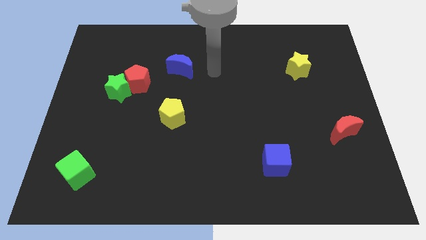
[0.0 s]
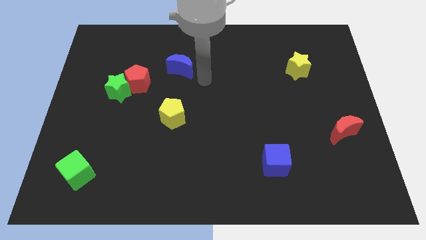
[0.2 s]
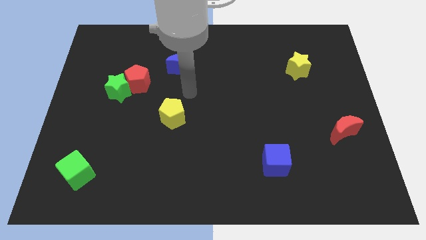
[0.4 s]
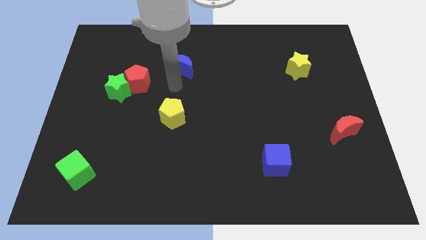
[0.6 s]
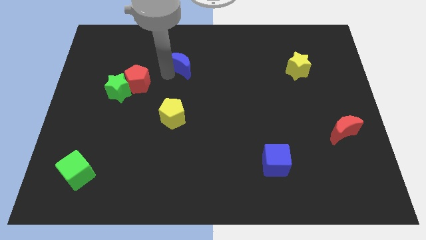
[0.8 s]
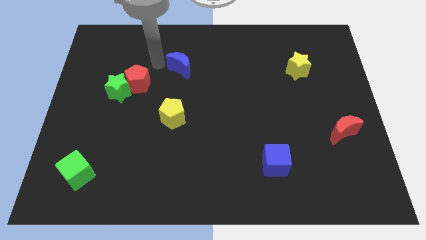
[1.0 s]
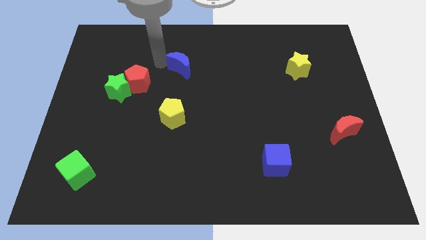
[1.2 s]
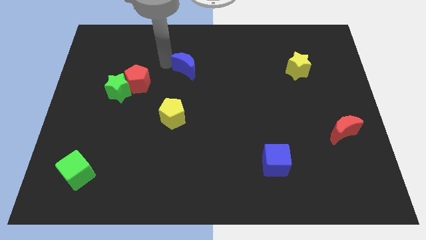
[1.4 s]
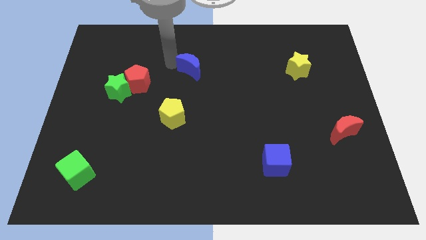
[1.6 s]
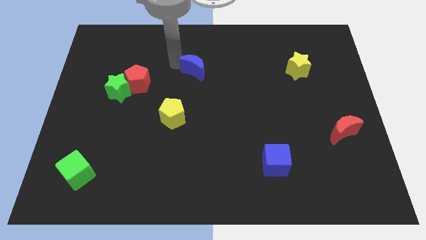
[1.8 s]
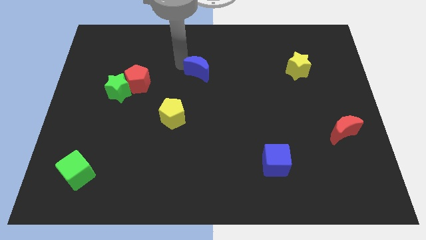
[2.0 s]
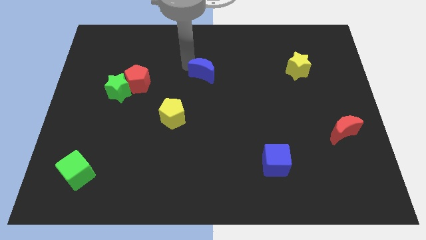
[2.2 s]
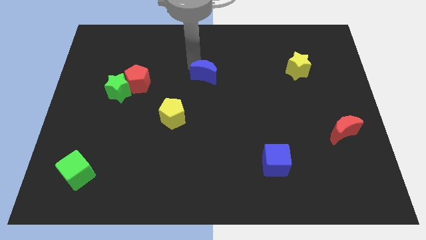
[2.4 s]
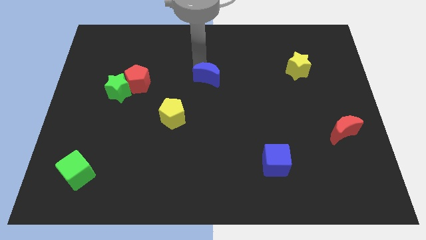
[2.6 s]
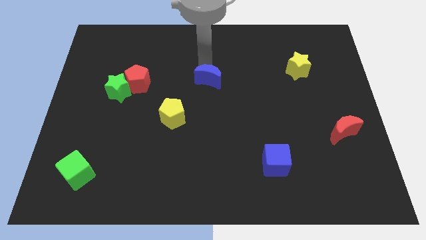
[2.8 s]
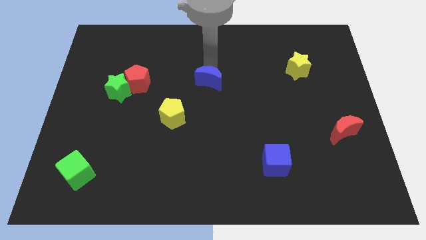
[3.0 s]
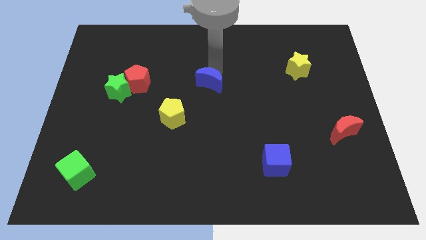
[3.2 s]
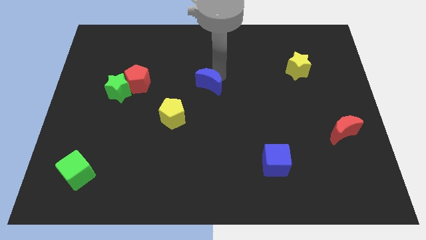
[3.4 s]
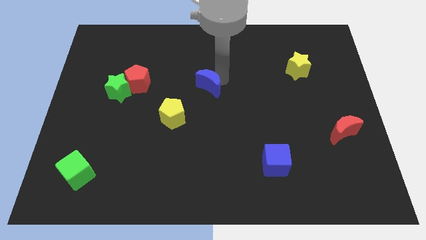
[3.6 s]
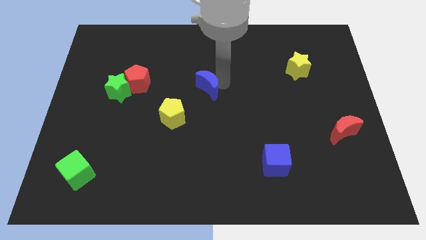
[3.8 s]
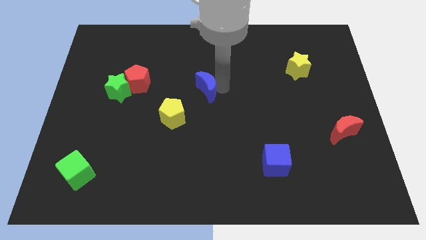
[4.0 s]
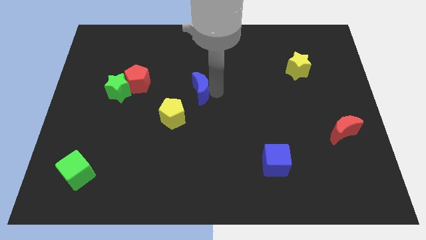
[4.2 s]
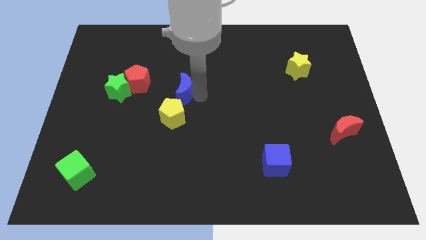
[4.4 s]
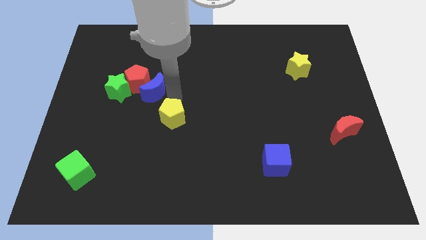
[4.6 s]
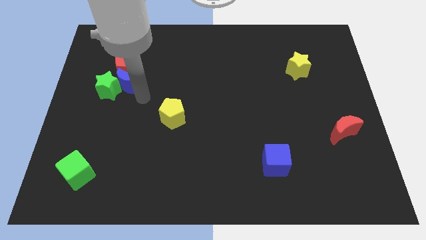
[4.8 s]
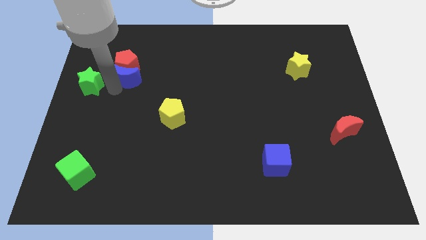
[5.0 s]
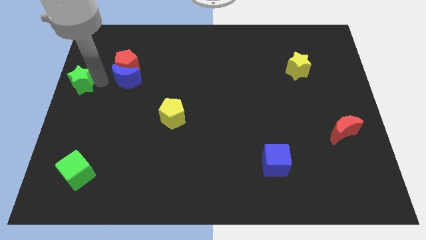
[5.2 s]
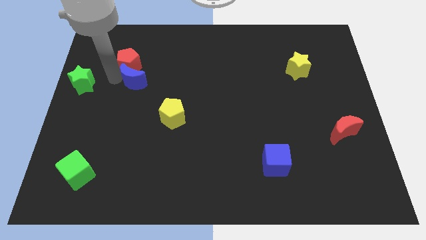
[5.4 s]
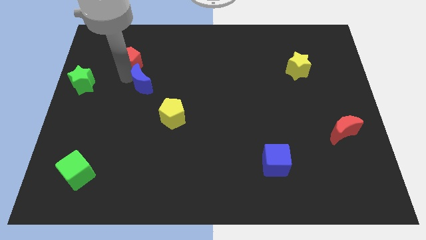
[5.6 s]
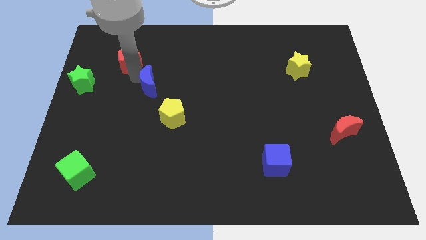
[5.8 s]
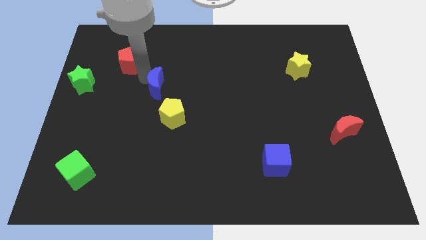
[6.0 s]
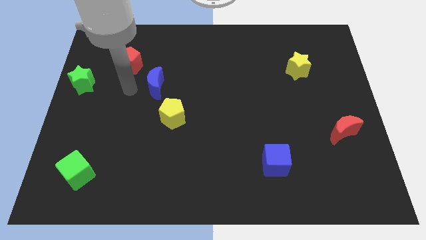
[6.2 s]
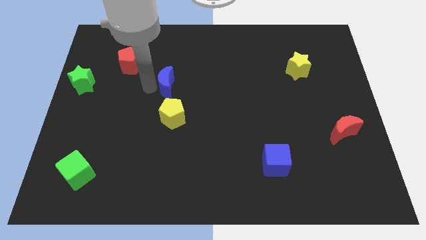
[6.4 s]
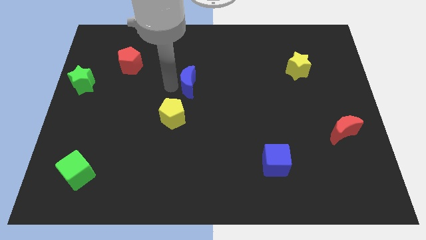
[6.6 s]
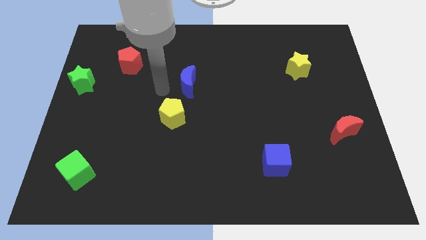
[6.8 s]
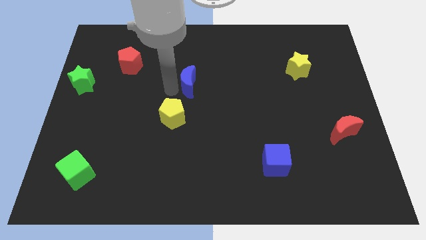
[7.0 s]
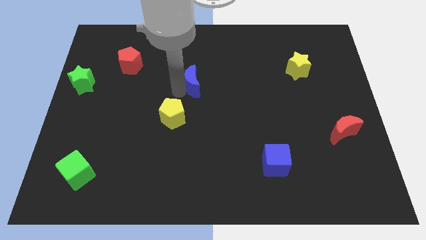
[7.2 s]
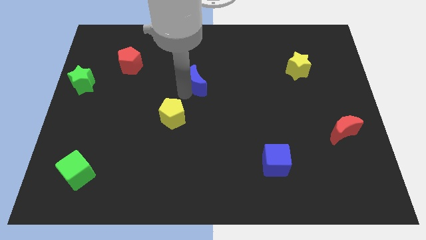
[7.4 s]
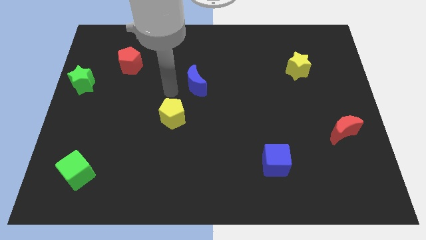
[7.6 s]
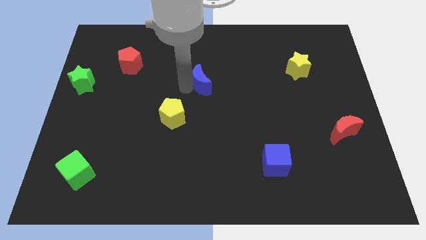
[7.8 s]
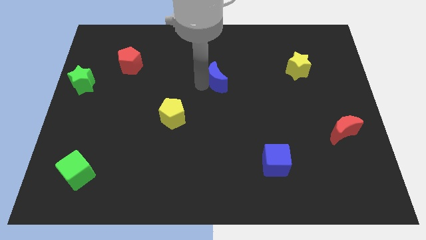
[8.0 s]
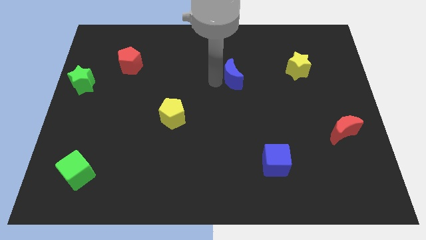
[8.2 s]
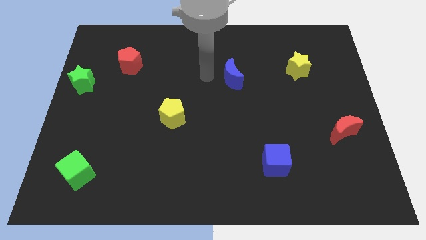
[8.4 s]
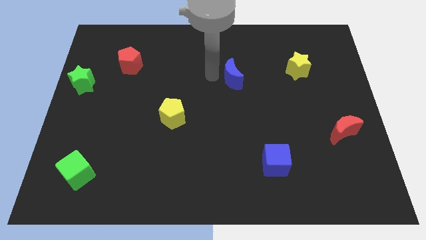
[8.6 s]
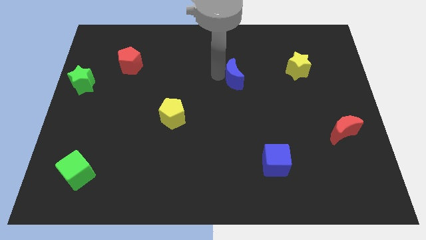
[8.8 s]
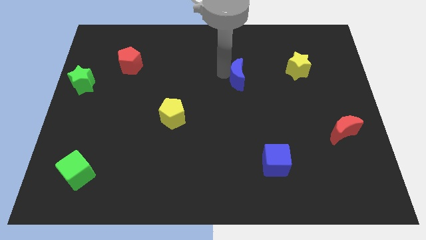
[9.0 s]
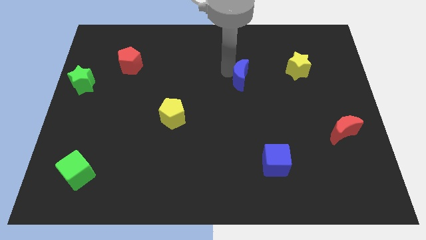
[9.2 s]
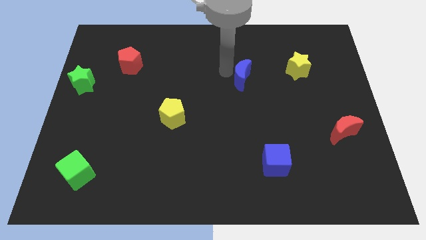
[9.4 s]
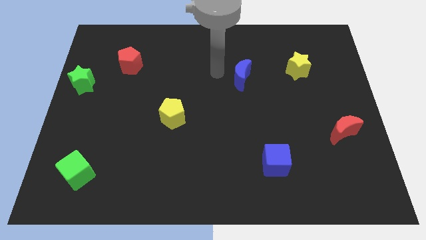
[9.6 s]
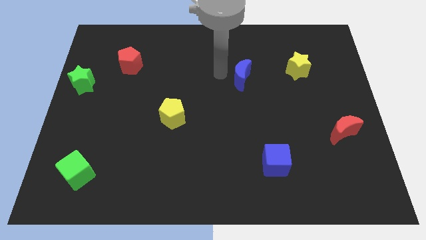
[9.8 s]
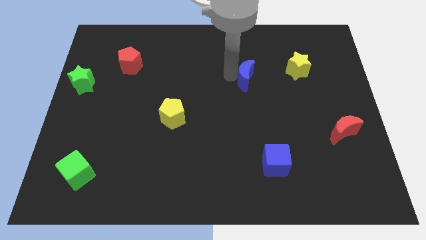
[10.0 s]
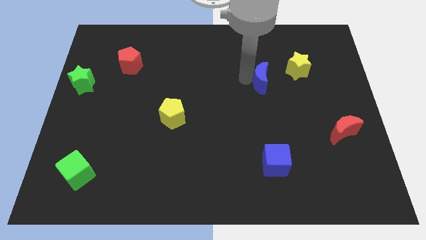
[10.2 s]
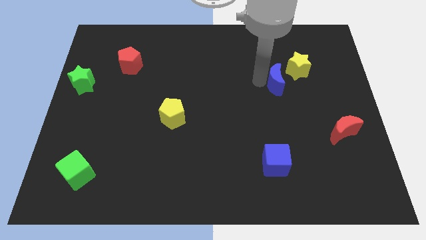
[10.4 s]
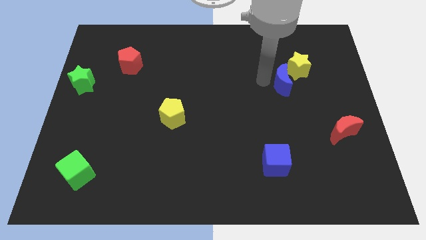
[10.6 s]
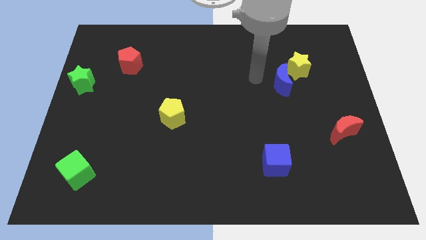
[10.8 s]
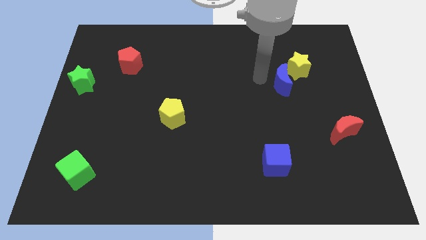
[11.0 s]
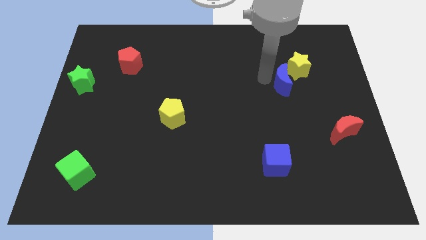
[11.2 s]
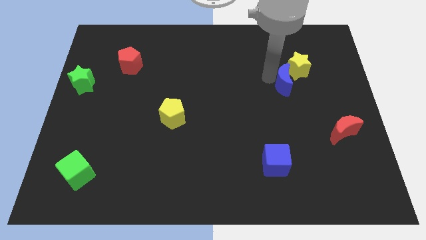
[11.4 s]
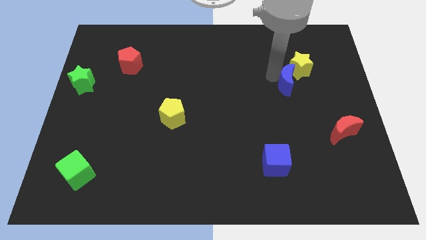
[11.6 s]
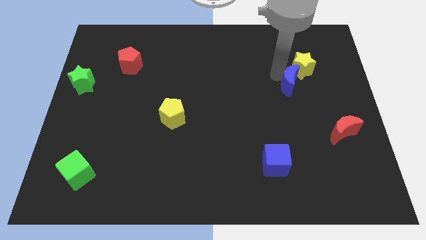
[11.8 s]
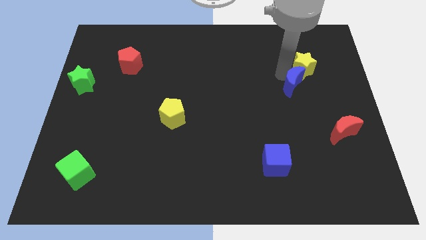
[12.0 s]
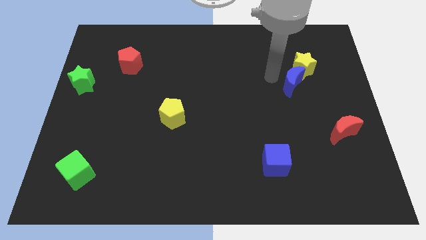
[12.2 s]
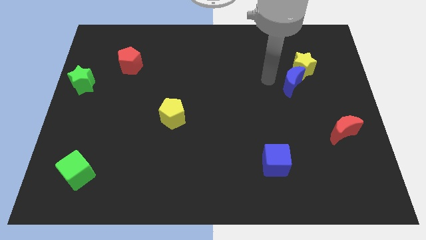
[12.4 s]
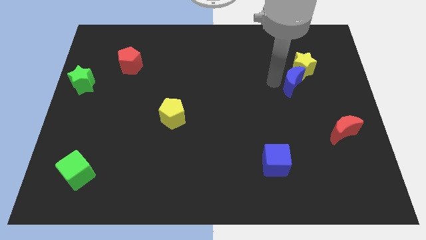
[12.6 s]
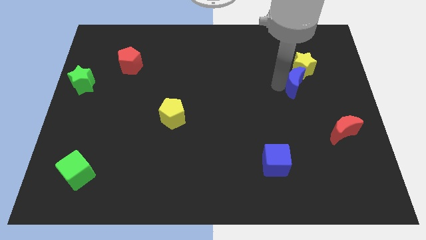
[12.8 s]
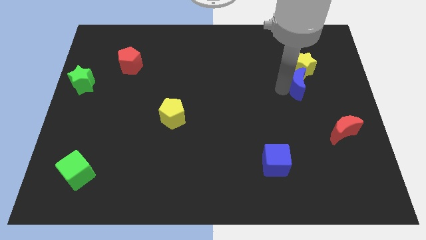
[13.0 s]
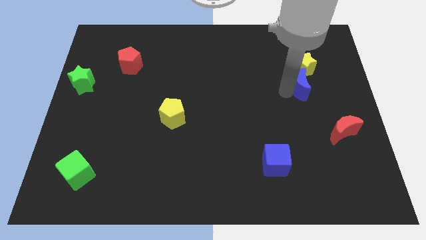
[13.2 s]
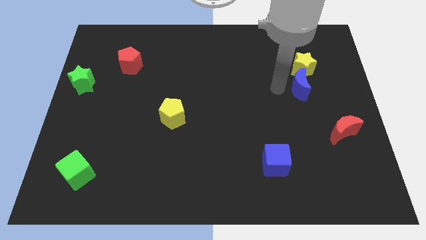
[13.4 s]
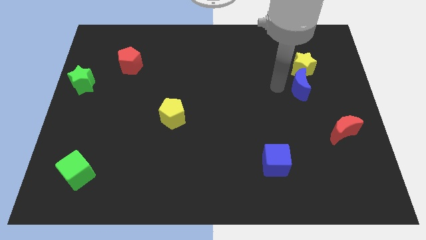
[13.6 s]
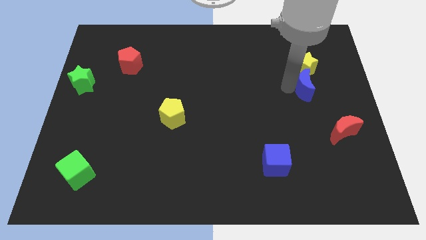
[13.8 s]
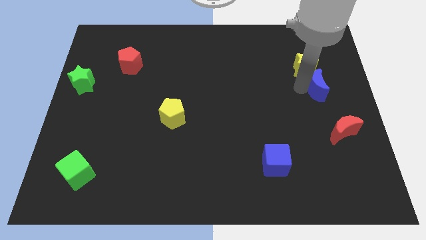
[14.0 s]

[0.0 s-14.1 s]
slide the blue moon to the center right
